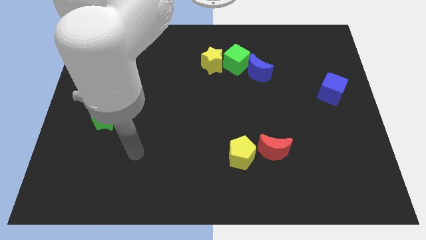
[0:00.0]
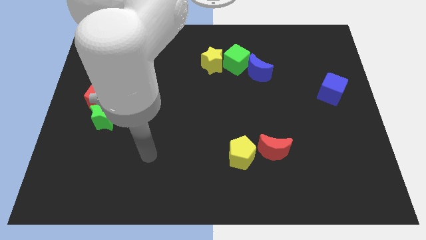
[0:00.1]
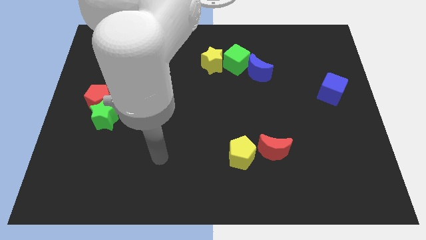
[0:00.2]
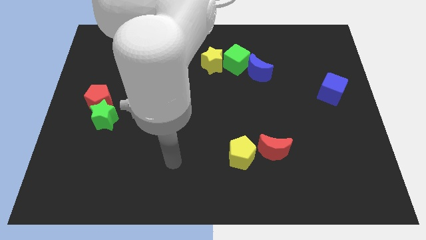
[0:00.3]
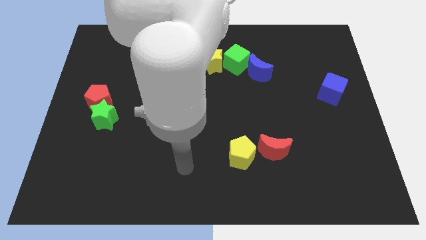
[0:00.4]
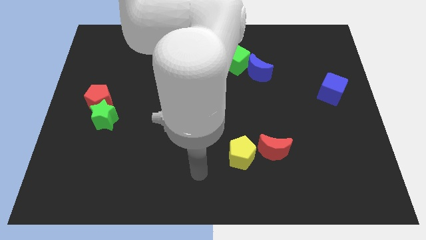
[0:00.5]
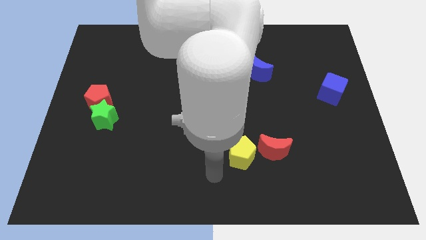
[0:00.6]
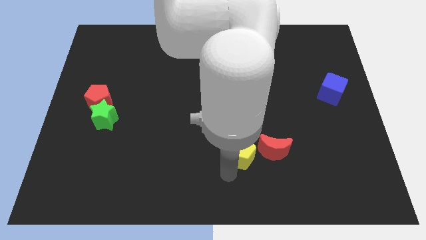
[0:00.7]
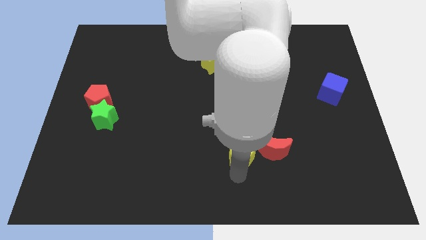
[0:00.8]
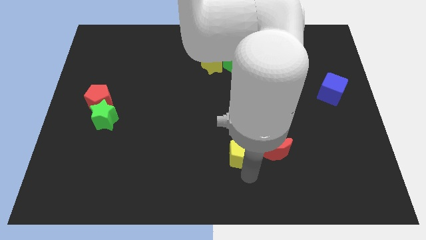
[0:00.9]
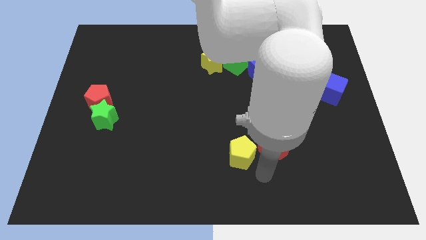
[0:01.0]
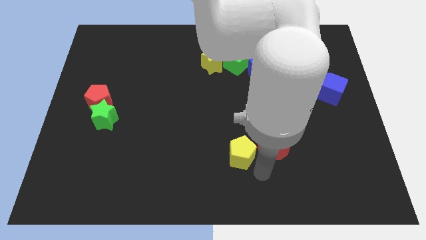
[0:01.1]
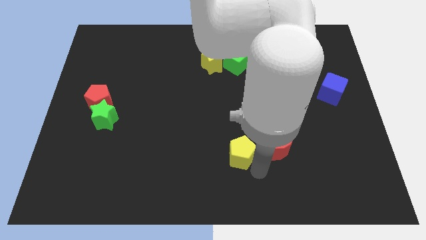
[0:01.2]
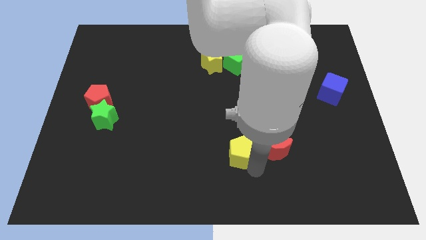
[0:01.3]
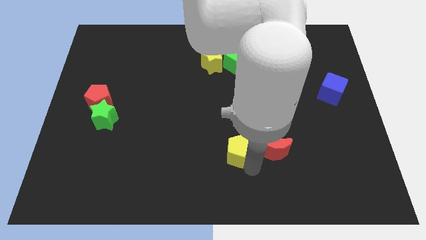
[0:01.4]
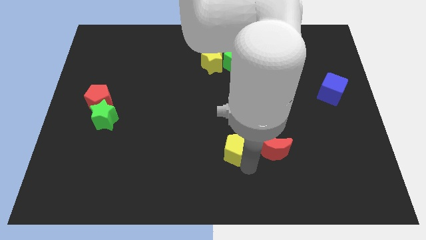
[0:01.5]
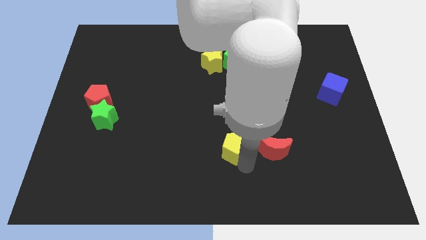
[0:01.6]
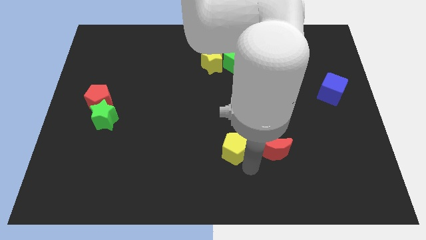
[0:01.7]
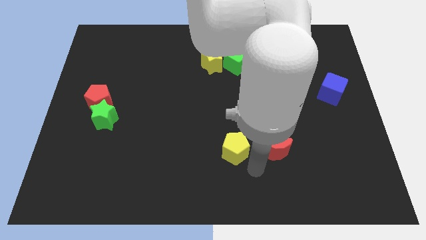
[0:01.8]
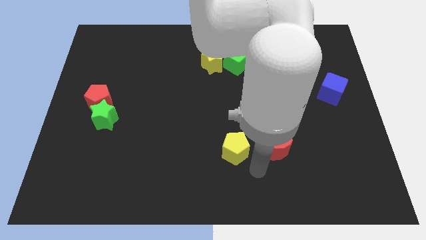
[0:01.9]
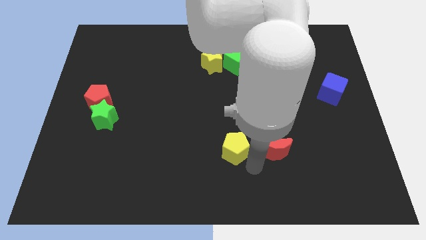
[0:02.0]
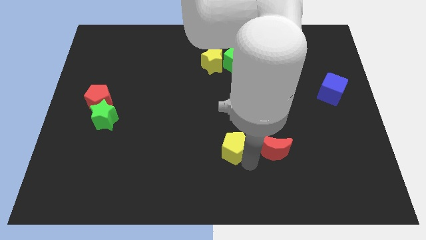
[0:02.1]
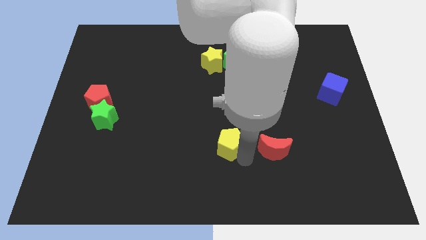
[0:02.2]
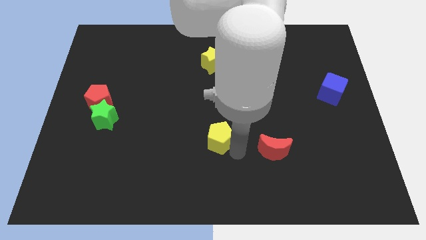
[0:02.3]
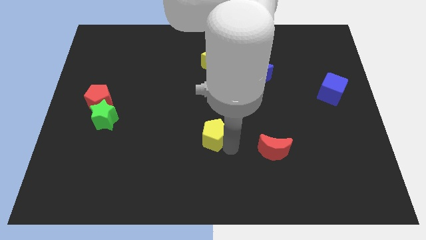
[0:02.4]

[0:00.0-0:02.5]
push the yellow pentagon slightly up and then to the left

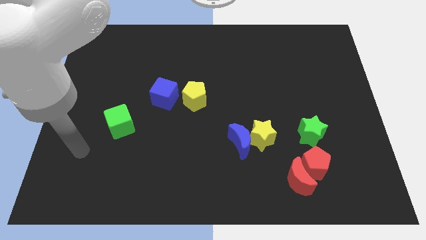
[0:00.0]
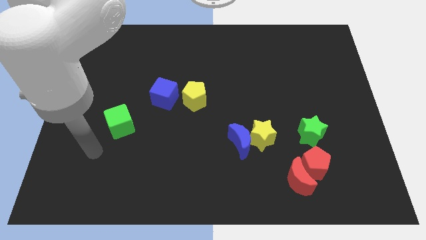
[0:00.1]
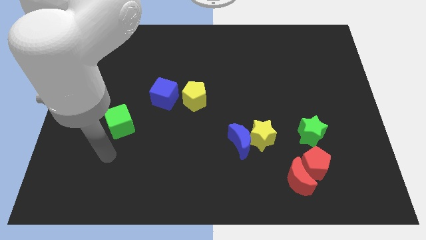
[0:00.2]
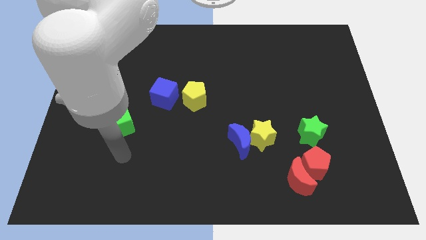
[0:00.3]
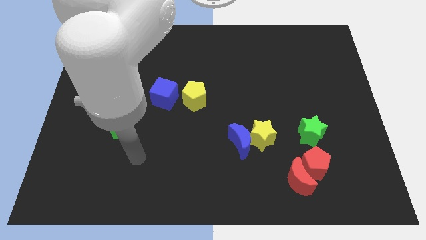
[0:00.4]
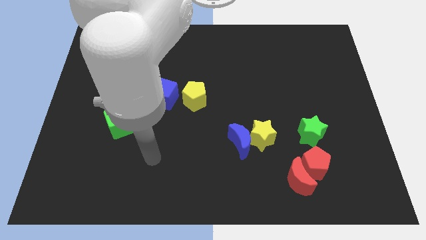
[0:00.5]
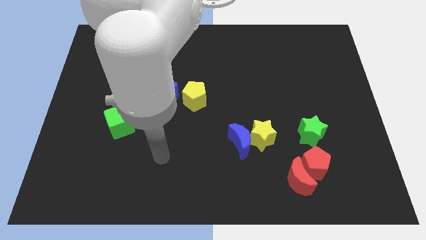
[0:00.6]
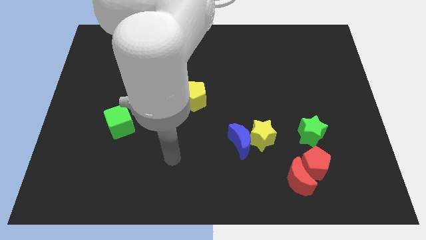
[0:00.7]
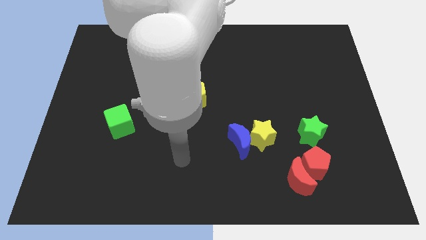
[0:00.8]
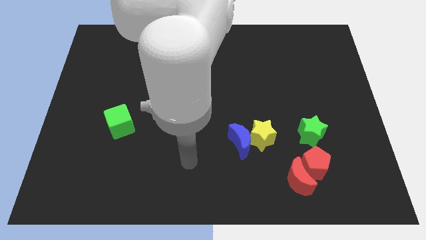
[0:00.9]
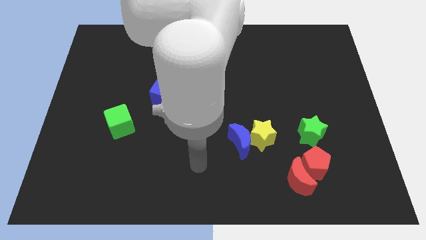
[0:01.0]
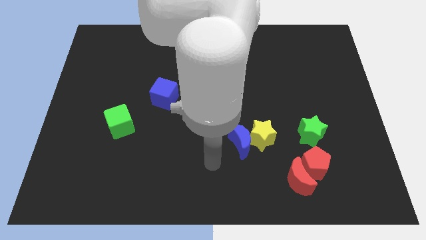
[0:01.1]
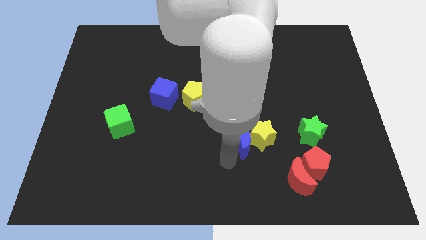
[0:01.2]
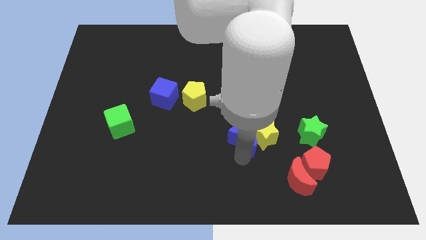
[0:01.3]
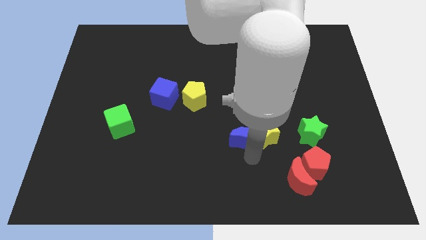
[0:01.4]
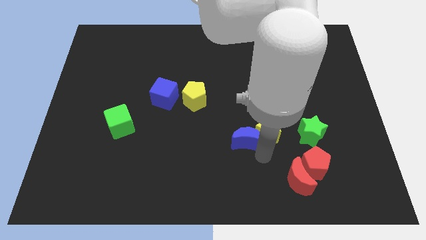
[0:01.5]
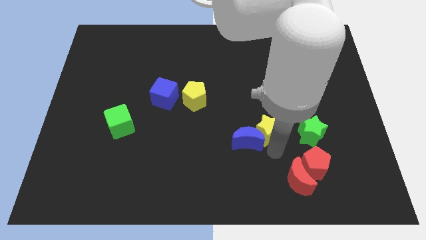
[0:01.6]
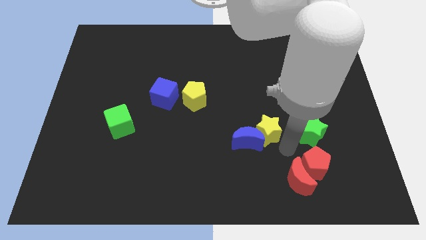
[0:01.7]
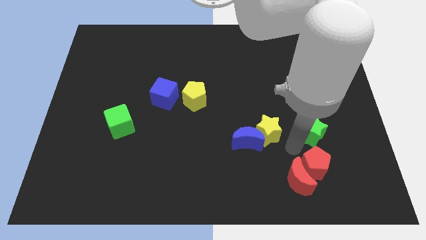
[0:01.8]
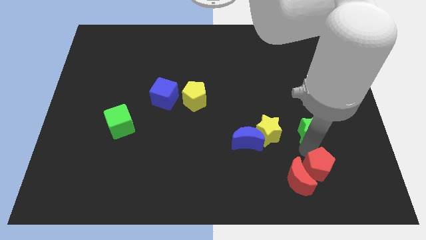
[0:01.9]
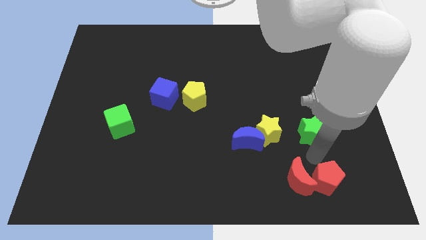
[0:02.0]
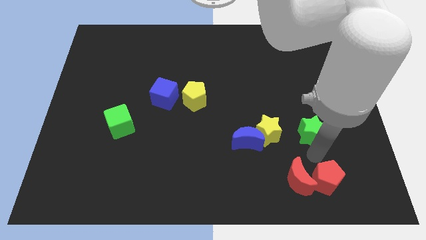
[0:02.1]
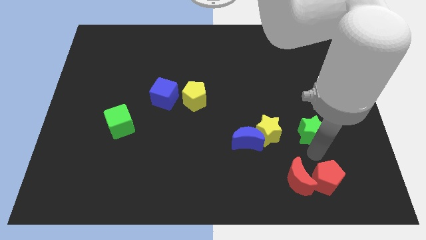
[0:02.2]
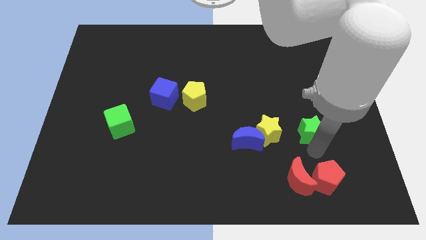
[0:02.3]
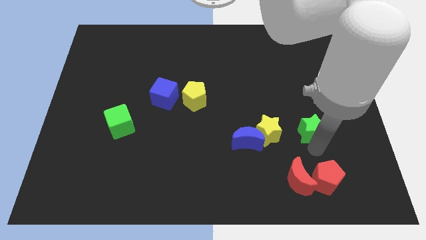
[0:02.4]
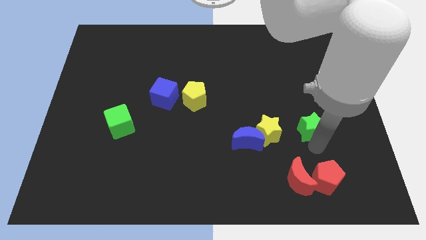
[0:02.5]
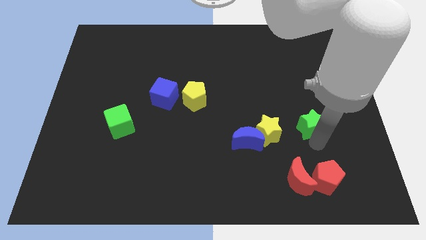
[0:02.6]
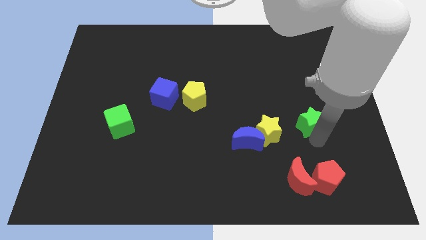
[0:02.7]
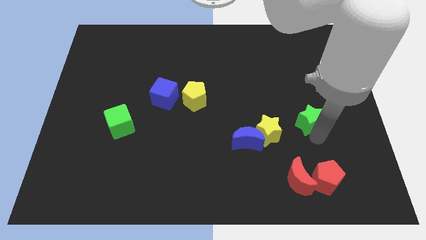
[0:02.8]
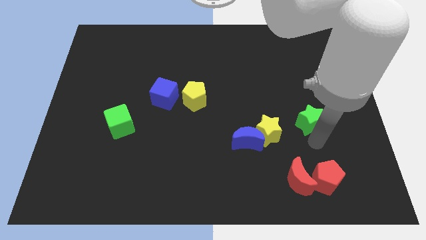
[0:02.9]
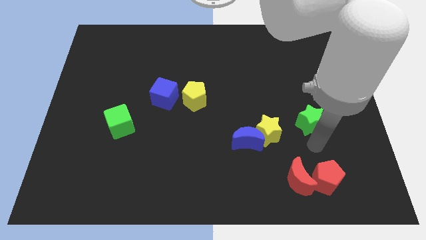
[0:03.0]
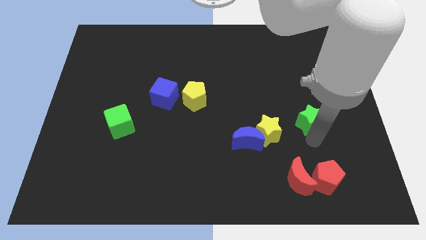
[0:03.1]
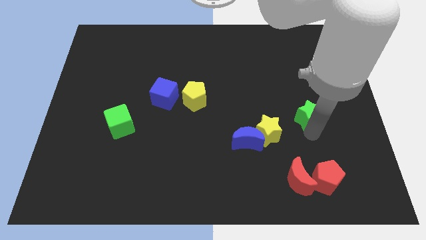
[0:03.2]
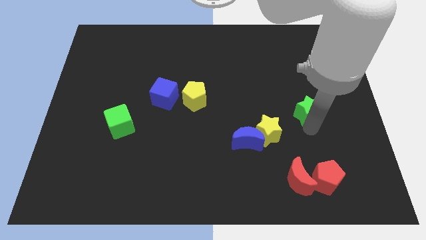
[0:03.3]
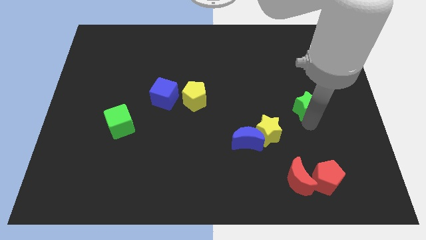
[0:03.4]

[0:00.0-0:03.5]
push the green star upwards a little bit

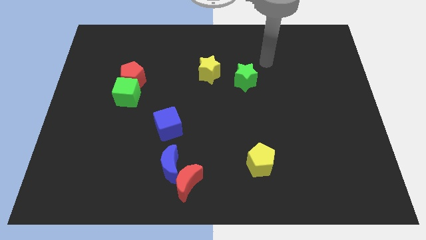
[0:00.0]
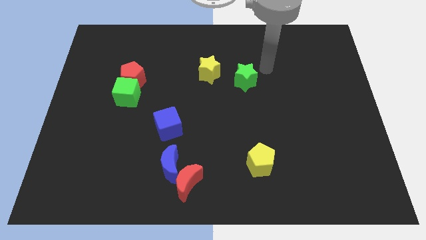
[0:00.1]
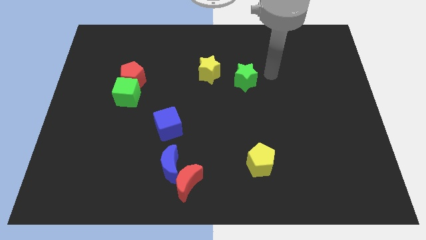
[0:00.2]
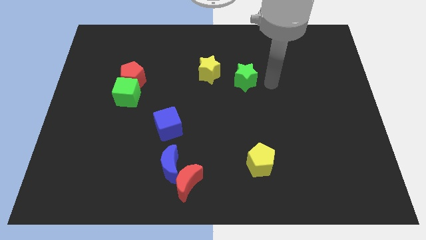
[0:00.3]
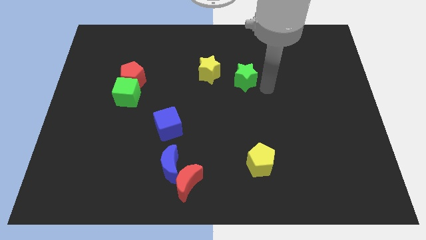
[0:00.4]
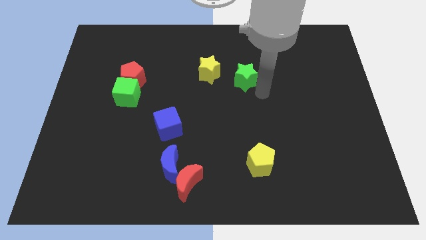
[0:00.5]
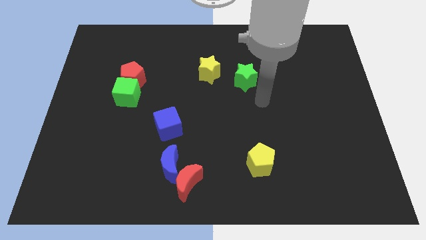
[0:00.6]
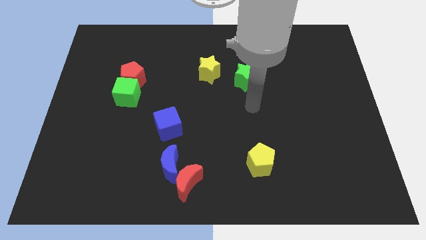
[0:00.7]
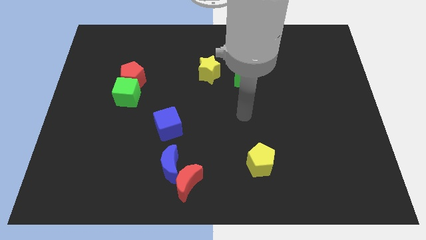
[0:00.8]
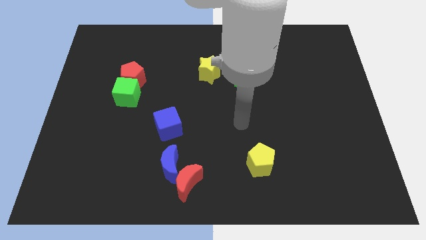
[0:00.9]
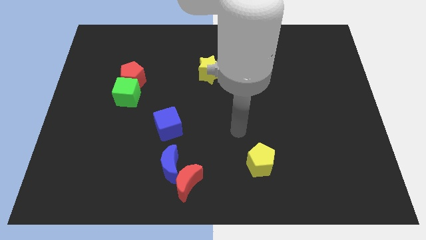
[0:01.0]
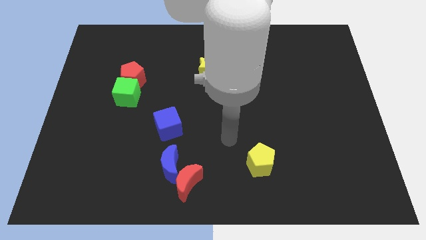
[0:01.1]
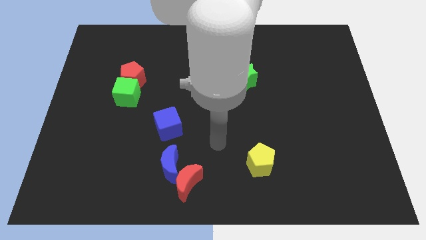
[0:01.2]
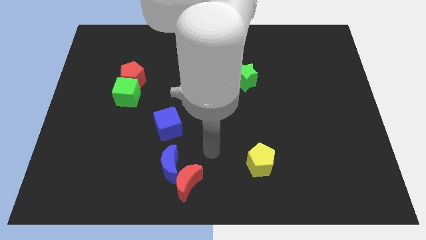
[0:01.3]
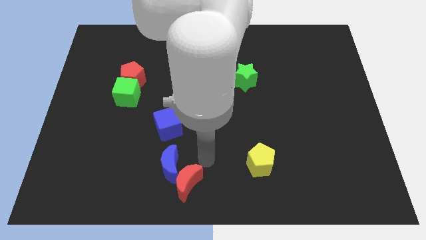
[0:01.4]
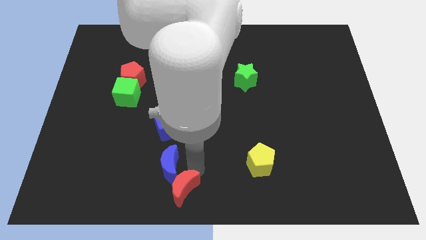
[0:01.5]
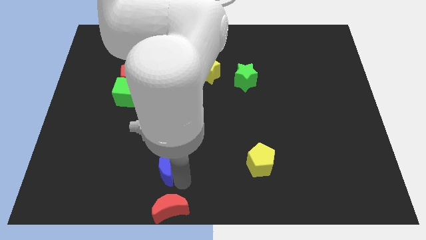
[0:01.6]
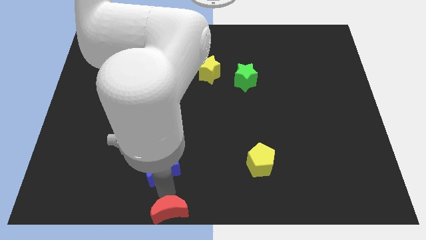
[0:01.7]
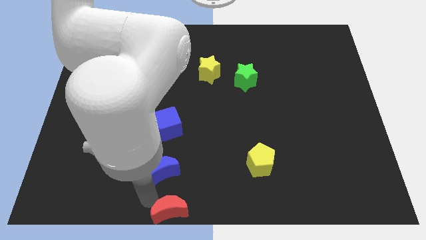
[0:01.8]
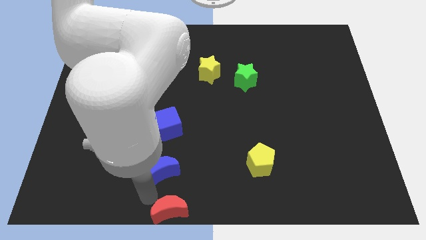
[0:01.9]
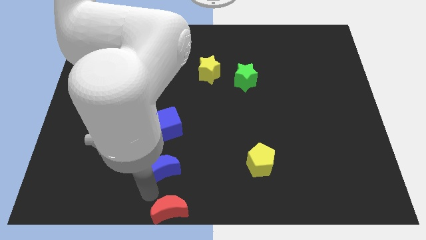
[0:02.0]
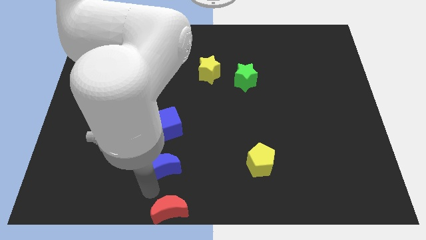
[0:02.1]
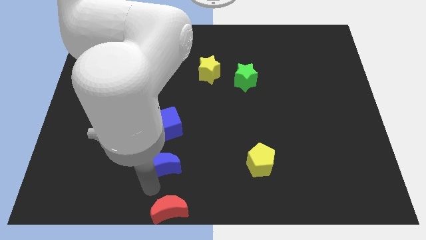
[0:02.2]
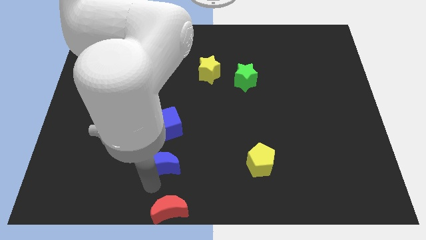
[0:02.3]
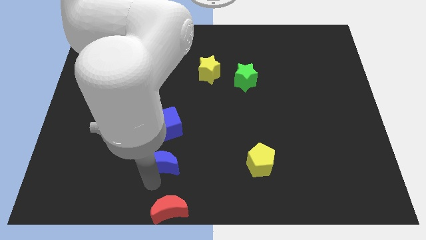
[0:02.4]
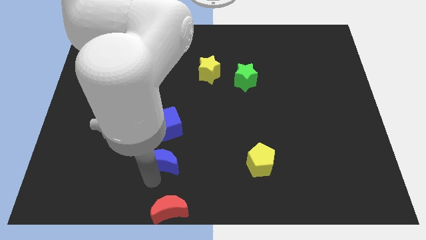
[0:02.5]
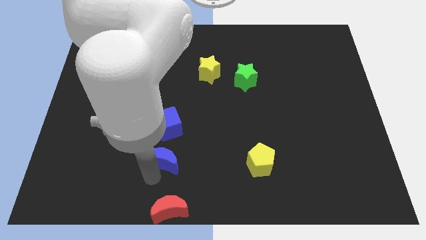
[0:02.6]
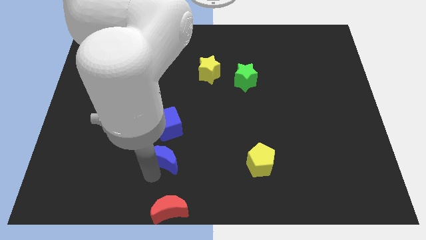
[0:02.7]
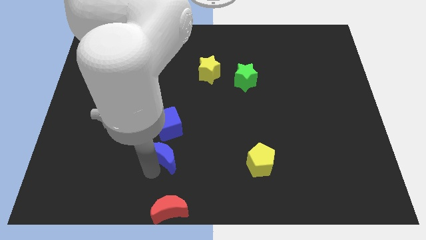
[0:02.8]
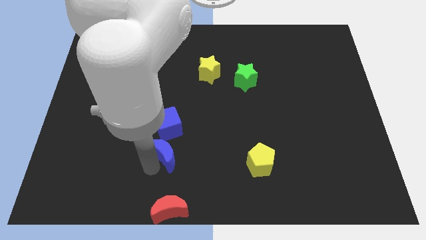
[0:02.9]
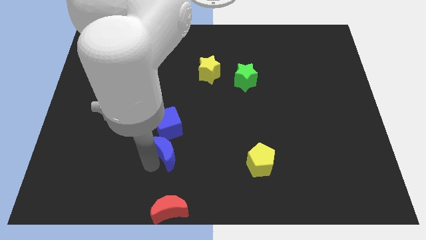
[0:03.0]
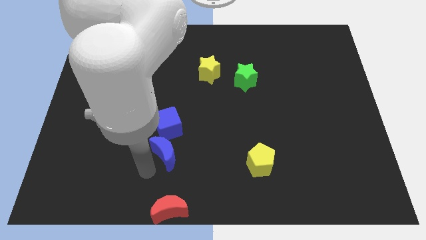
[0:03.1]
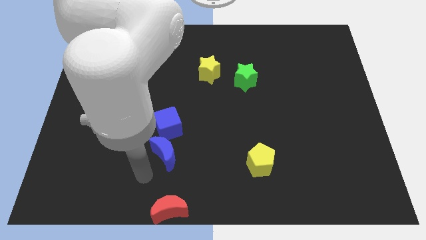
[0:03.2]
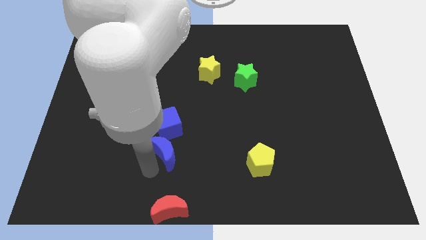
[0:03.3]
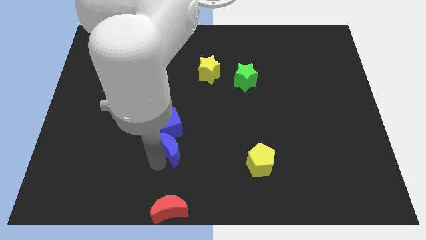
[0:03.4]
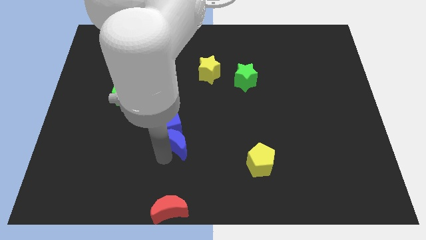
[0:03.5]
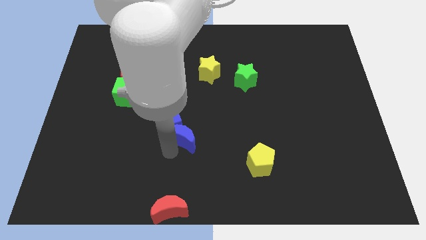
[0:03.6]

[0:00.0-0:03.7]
slightly slide the blue moon upwards
